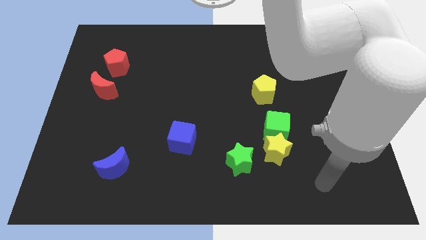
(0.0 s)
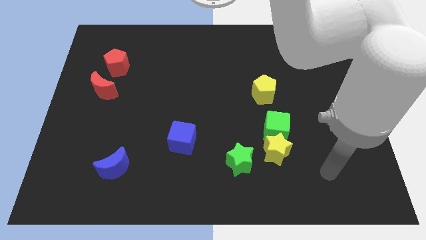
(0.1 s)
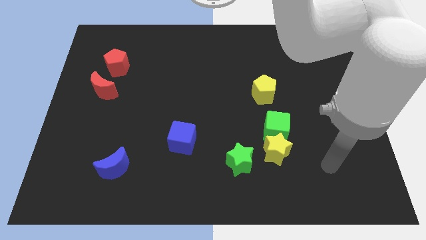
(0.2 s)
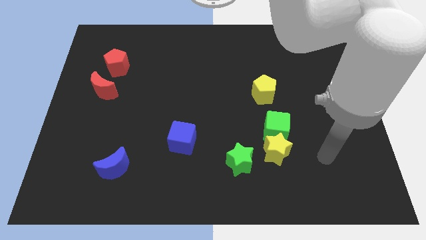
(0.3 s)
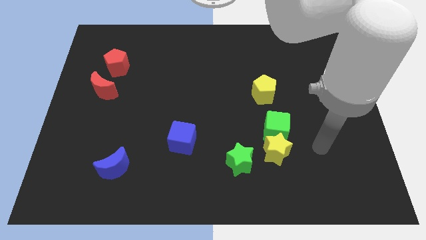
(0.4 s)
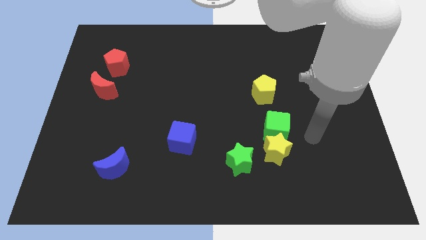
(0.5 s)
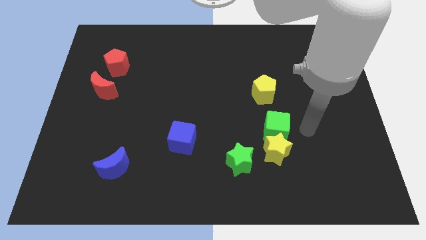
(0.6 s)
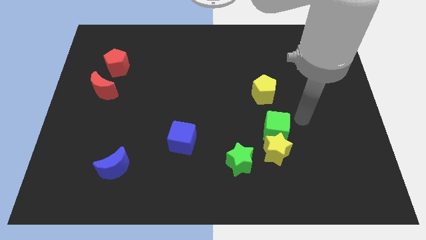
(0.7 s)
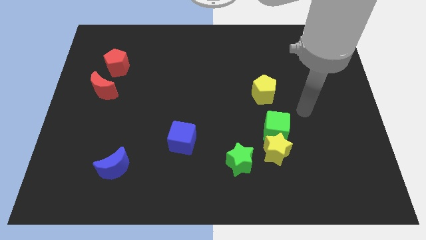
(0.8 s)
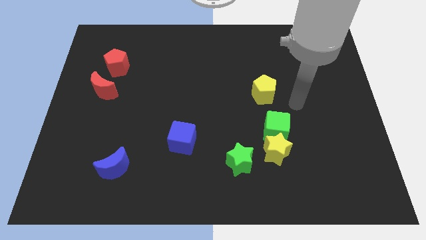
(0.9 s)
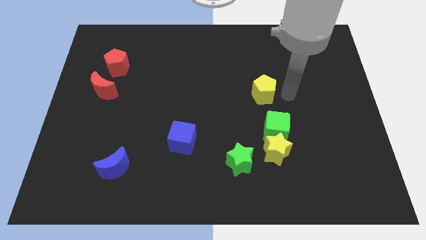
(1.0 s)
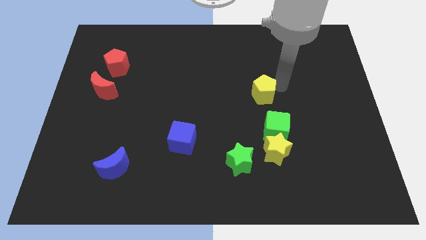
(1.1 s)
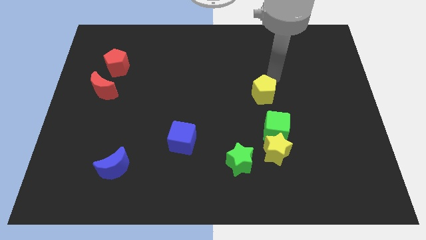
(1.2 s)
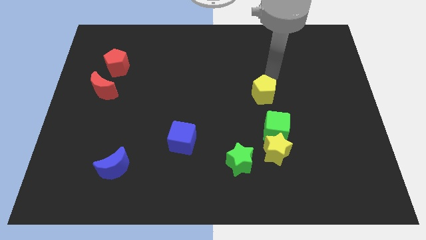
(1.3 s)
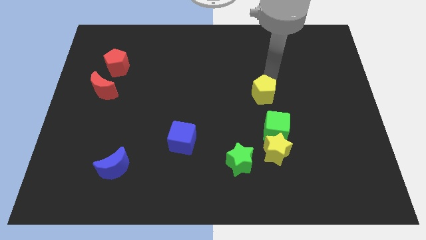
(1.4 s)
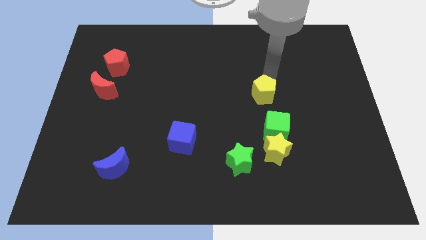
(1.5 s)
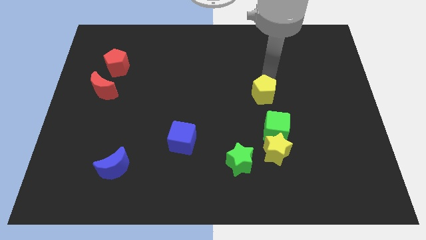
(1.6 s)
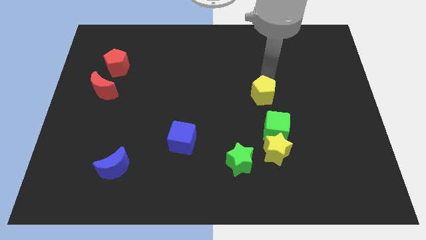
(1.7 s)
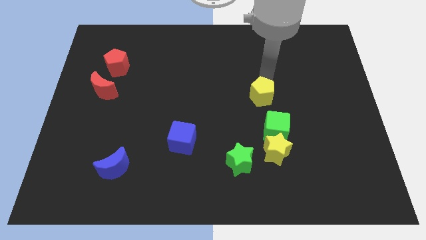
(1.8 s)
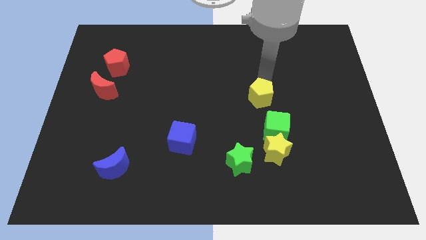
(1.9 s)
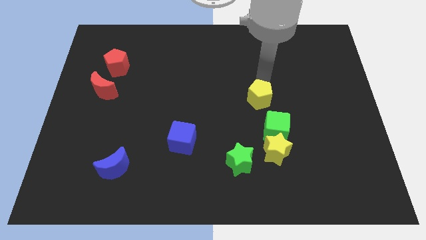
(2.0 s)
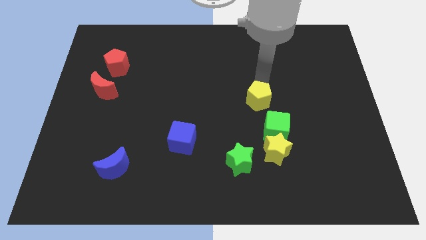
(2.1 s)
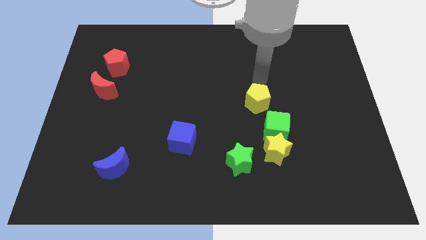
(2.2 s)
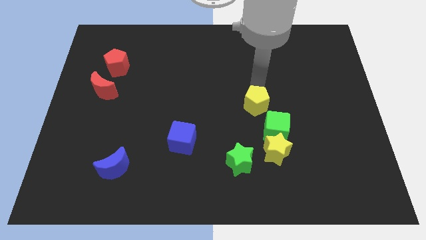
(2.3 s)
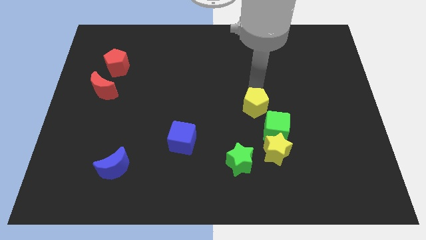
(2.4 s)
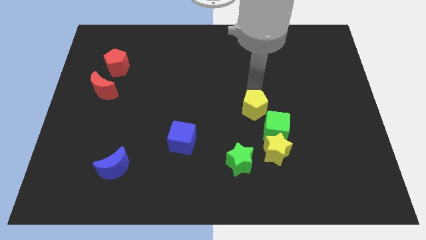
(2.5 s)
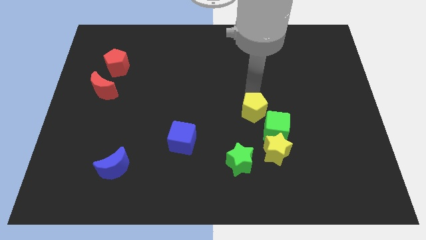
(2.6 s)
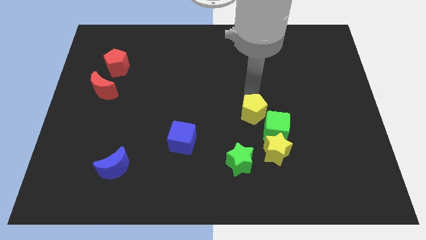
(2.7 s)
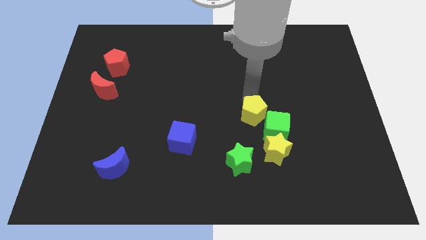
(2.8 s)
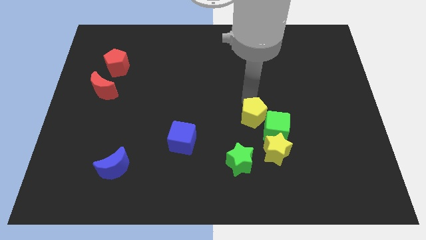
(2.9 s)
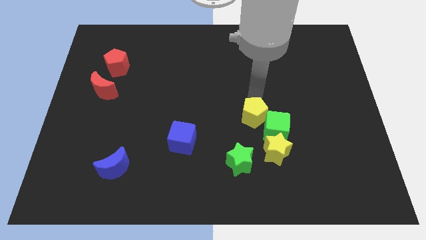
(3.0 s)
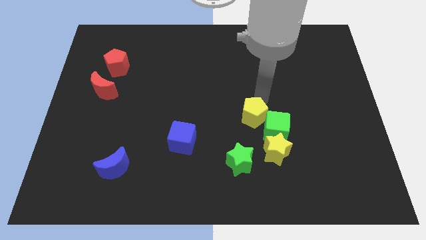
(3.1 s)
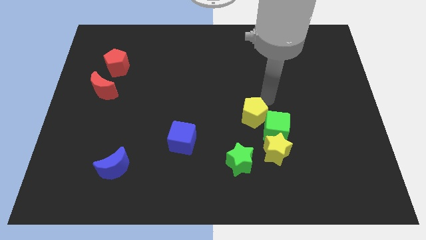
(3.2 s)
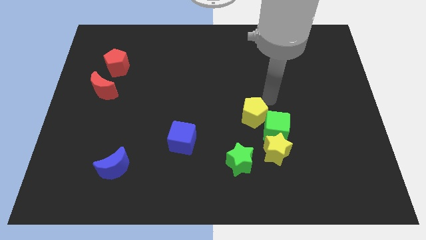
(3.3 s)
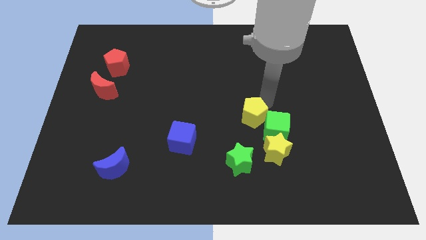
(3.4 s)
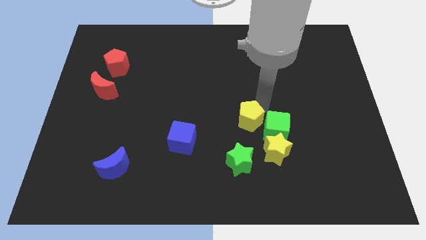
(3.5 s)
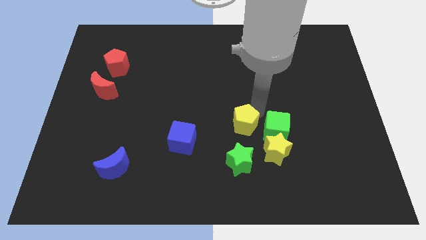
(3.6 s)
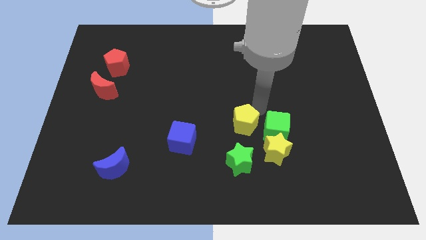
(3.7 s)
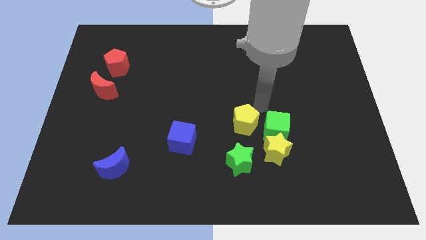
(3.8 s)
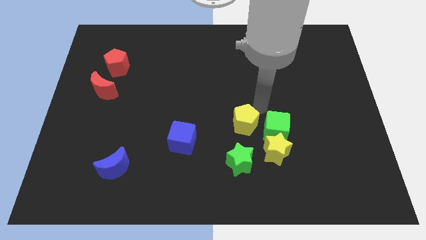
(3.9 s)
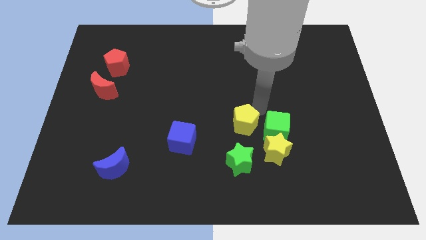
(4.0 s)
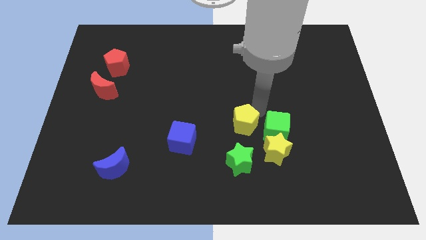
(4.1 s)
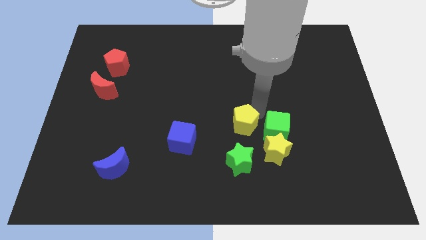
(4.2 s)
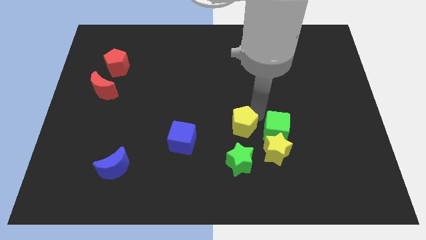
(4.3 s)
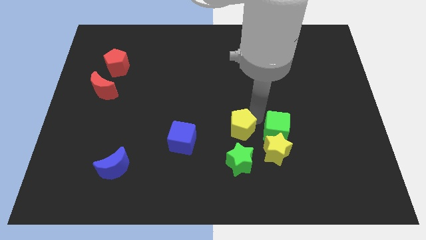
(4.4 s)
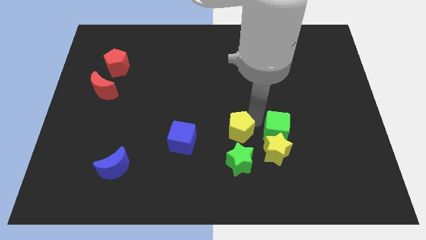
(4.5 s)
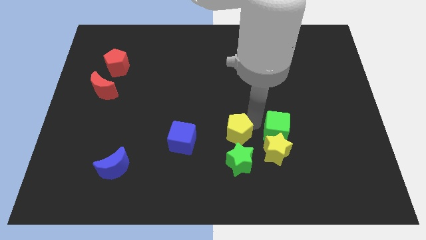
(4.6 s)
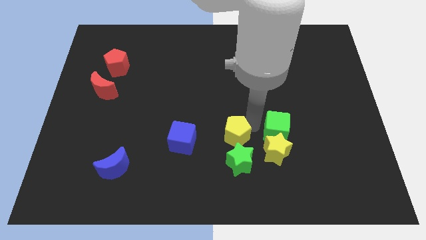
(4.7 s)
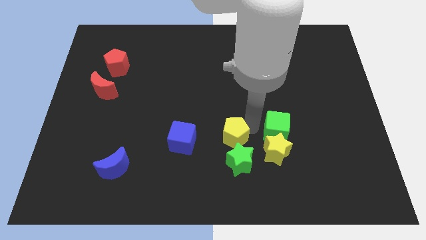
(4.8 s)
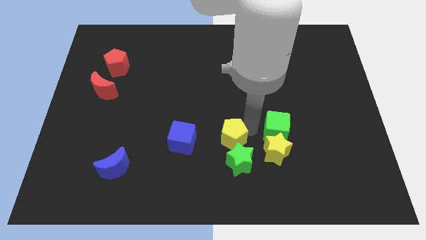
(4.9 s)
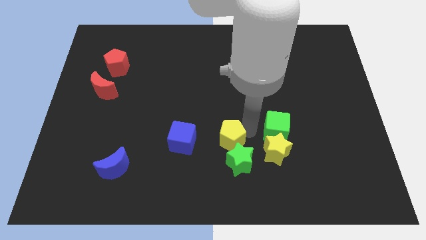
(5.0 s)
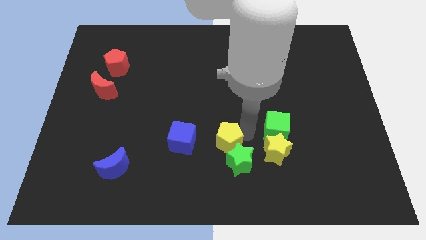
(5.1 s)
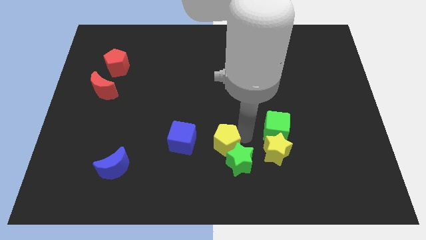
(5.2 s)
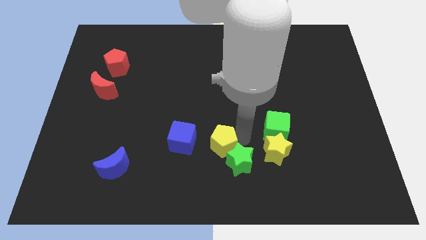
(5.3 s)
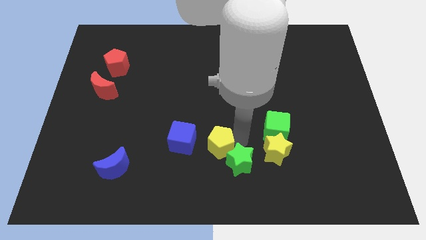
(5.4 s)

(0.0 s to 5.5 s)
put the yellow pentagon to the bottom right side of the blue cube

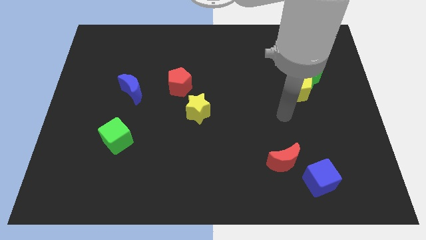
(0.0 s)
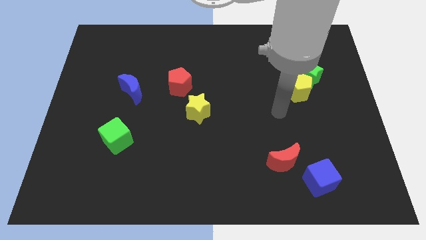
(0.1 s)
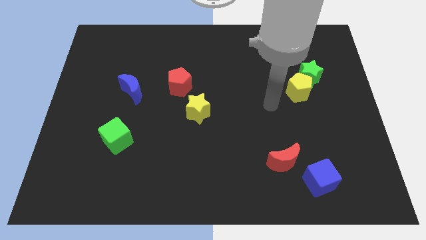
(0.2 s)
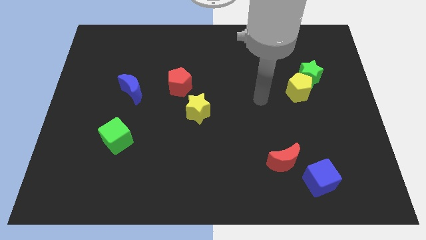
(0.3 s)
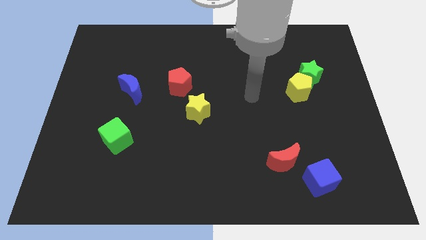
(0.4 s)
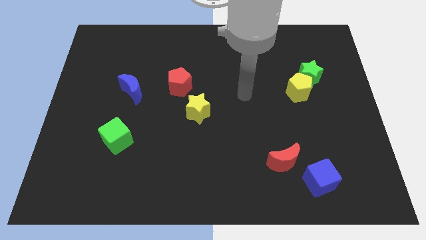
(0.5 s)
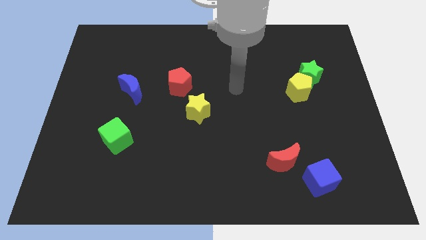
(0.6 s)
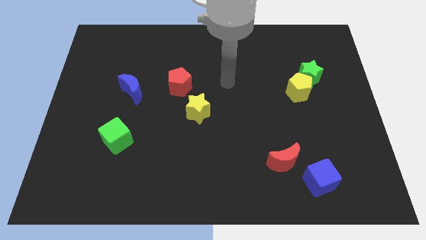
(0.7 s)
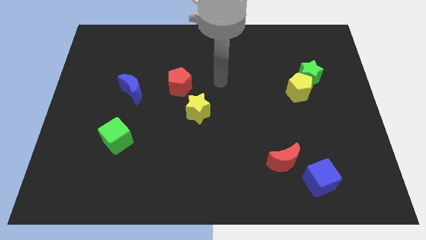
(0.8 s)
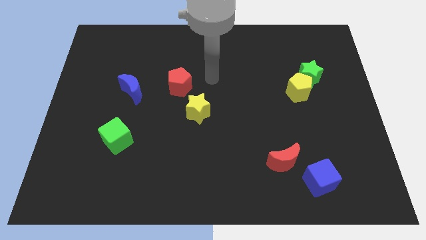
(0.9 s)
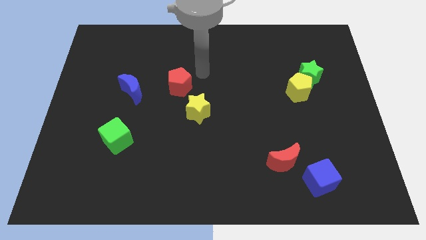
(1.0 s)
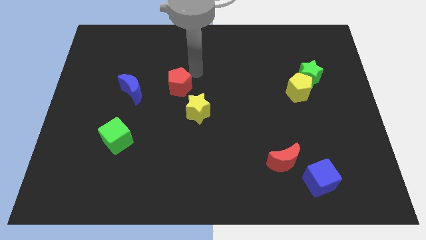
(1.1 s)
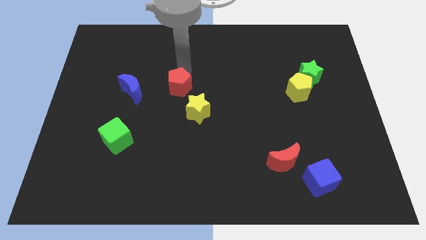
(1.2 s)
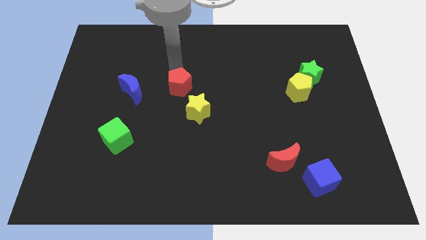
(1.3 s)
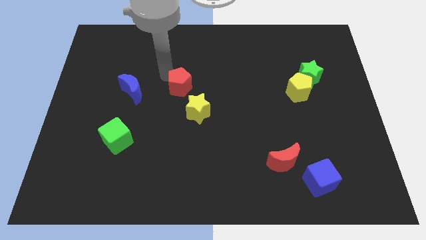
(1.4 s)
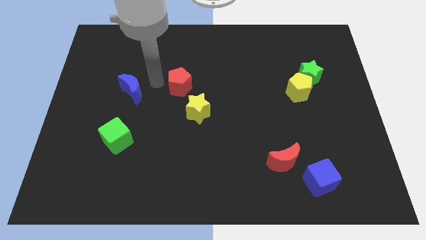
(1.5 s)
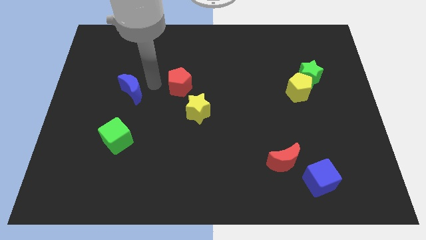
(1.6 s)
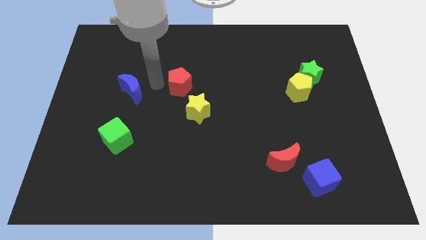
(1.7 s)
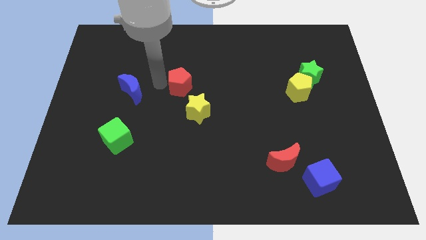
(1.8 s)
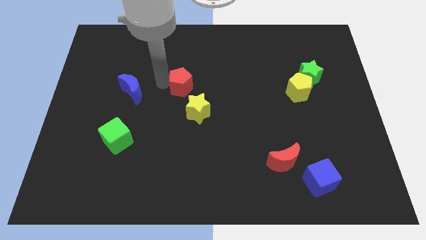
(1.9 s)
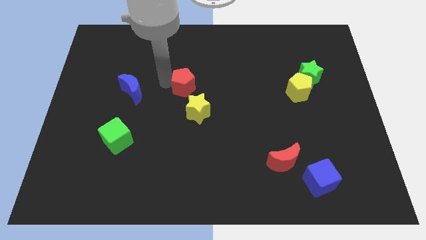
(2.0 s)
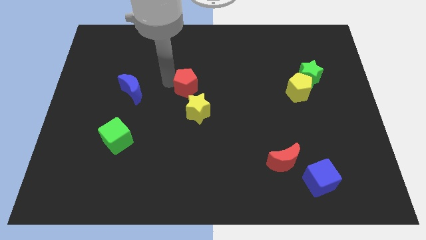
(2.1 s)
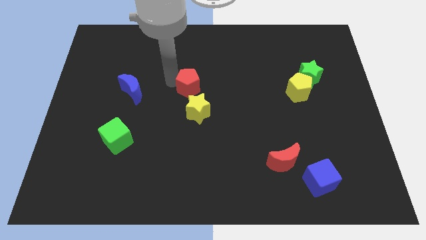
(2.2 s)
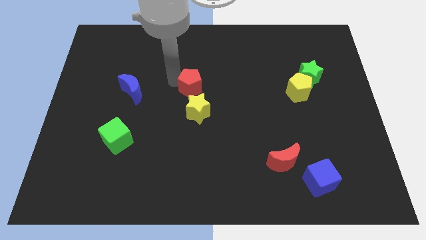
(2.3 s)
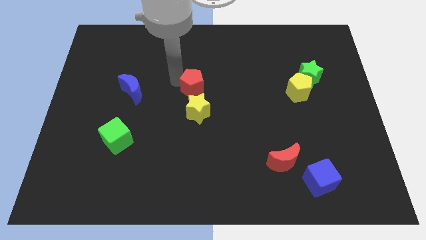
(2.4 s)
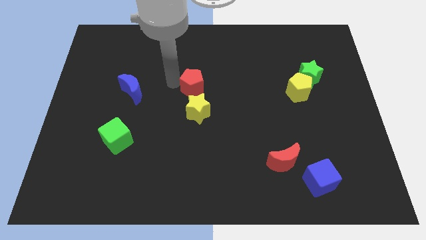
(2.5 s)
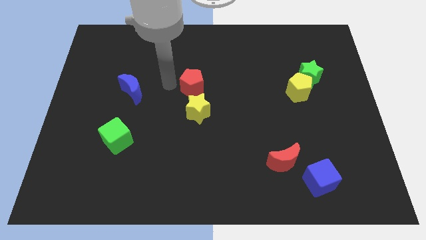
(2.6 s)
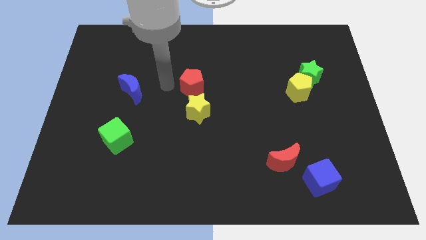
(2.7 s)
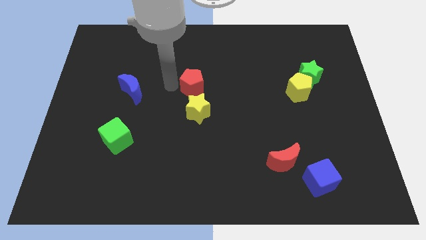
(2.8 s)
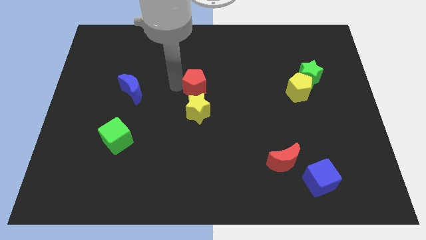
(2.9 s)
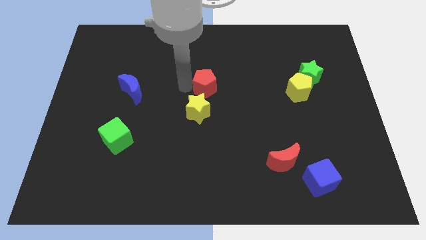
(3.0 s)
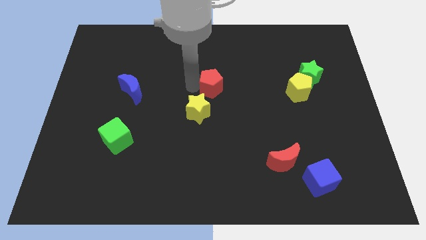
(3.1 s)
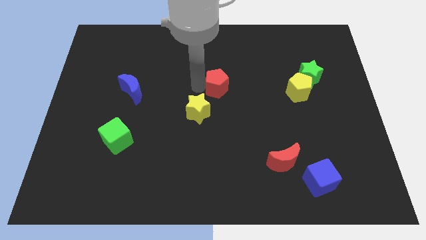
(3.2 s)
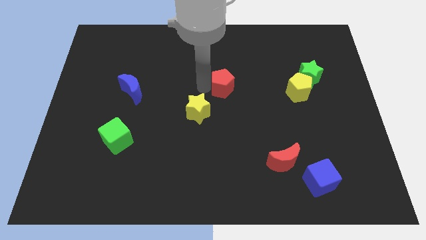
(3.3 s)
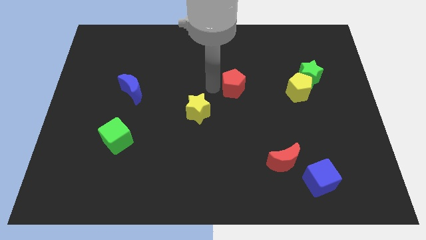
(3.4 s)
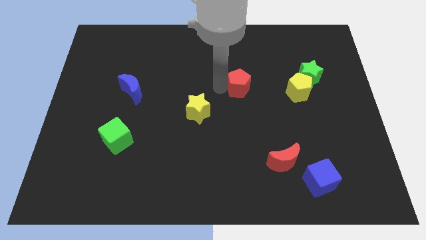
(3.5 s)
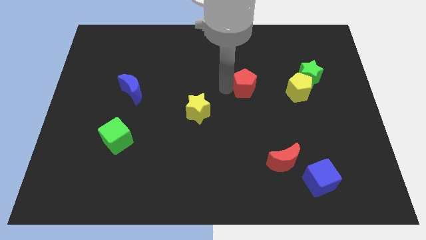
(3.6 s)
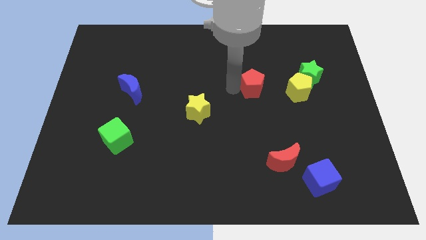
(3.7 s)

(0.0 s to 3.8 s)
put the red pentagon to the left side of the green star
